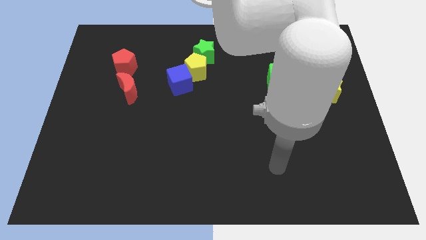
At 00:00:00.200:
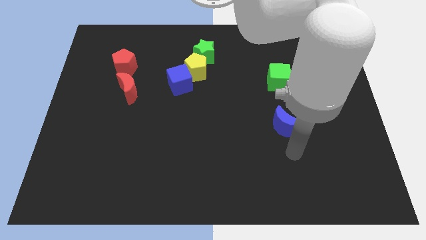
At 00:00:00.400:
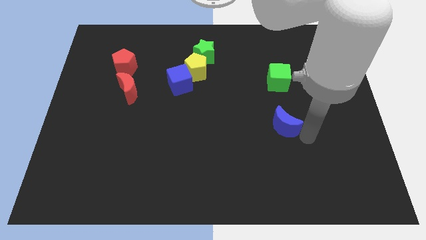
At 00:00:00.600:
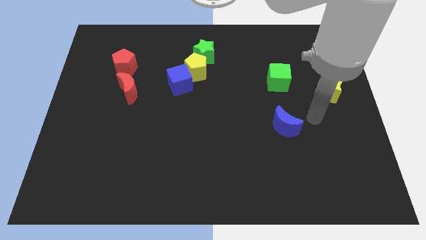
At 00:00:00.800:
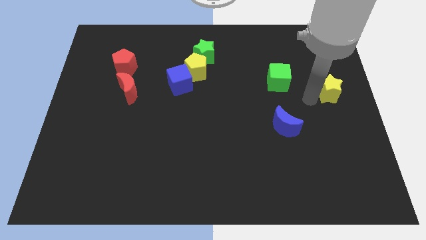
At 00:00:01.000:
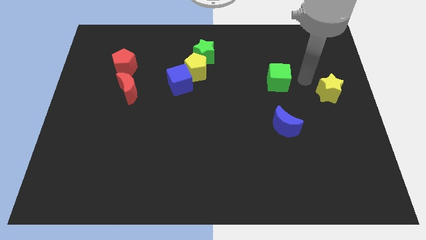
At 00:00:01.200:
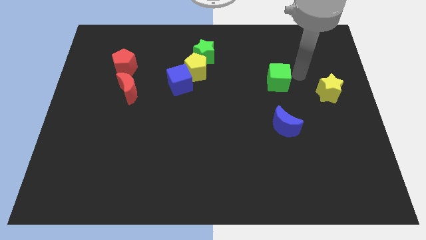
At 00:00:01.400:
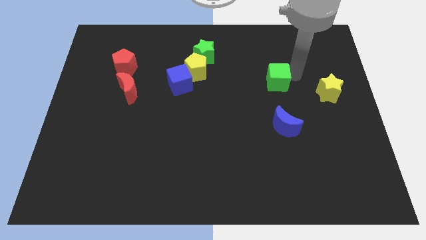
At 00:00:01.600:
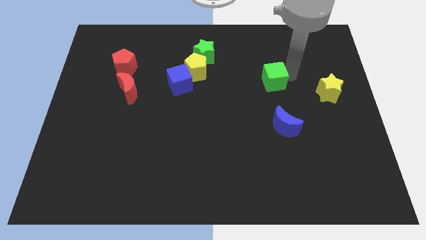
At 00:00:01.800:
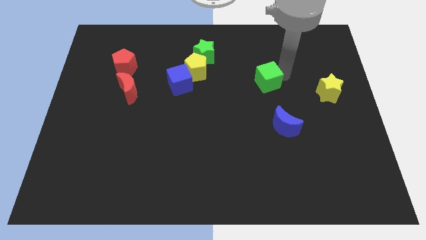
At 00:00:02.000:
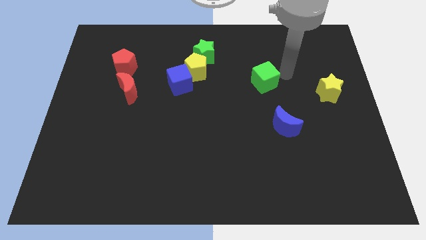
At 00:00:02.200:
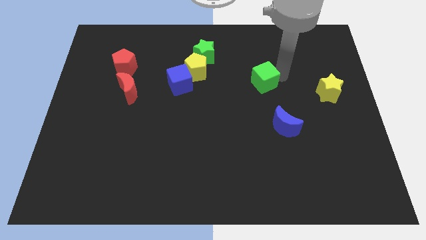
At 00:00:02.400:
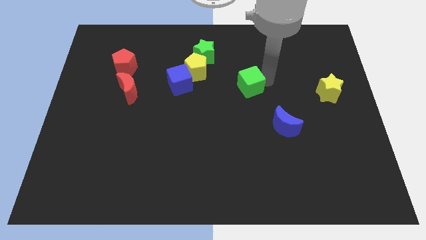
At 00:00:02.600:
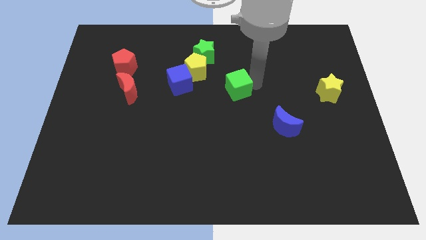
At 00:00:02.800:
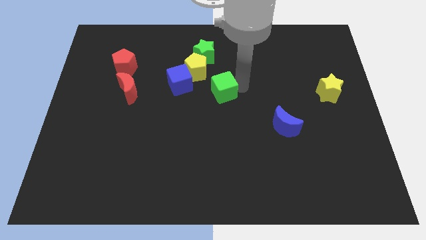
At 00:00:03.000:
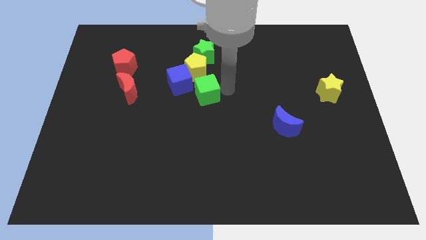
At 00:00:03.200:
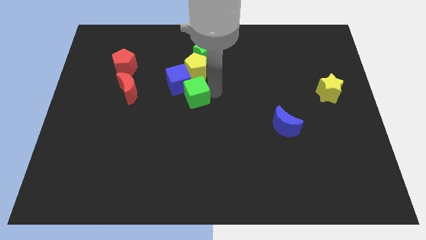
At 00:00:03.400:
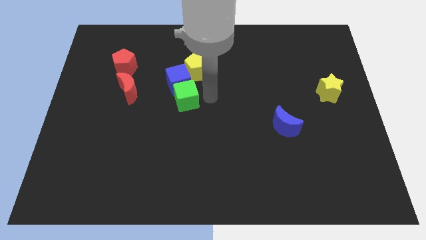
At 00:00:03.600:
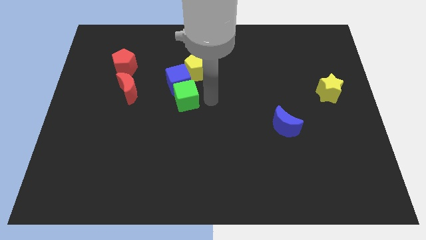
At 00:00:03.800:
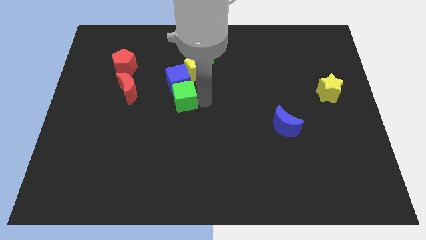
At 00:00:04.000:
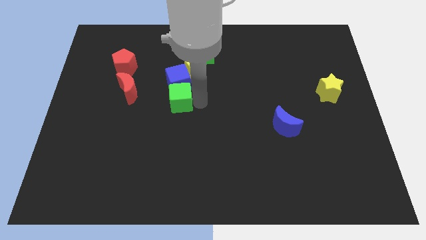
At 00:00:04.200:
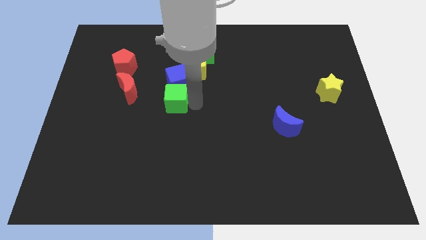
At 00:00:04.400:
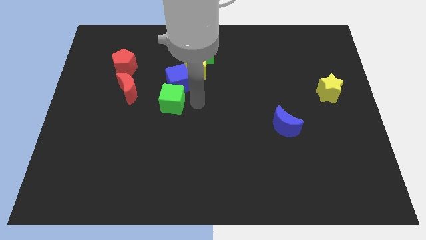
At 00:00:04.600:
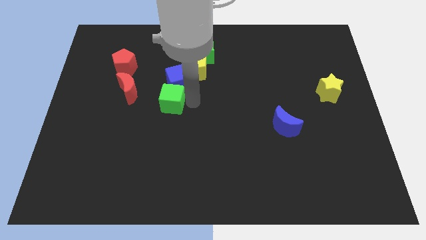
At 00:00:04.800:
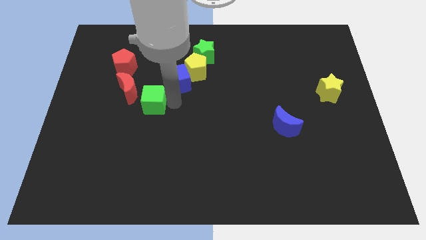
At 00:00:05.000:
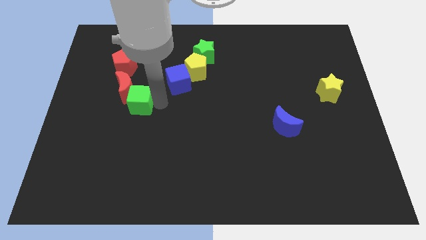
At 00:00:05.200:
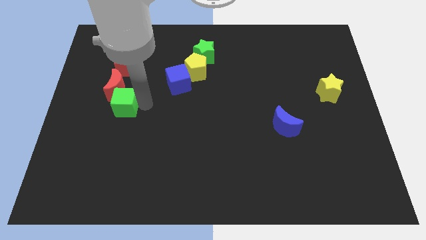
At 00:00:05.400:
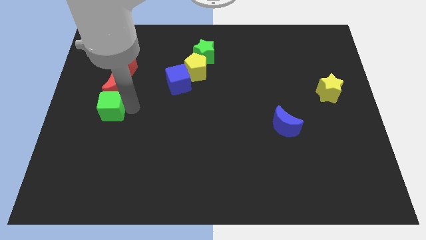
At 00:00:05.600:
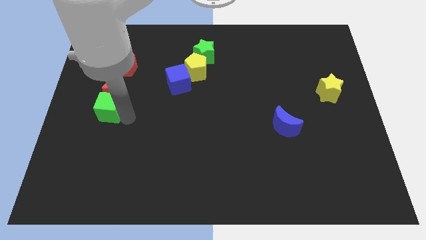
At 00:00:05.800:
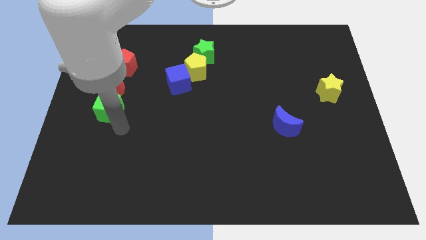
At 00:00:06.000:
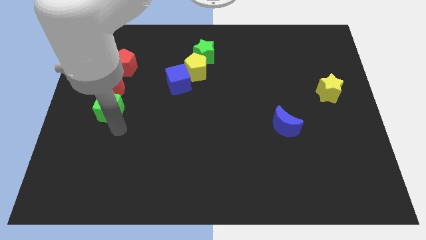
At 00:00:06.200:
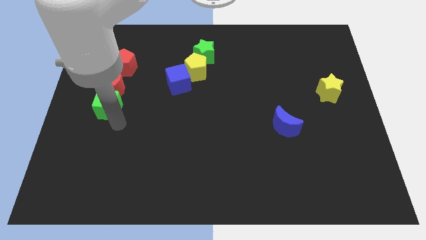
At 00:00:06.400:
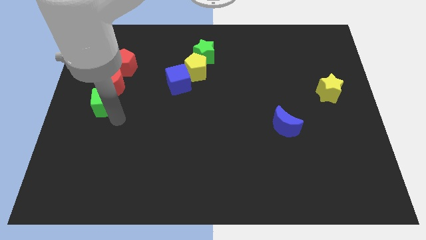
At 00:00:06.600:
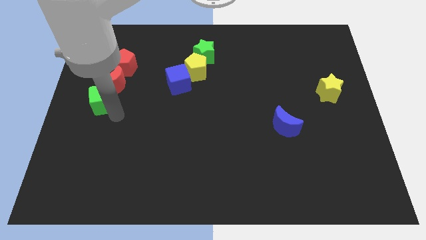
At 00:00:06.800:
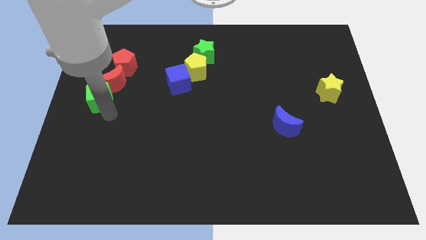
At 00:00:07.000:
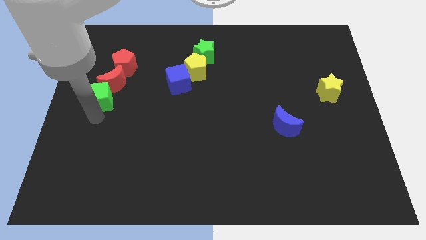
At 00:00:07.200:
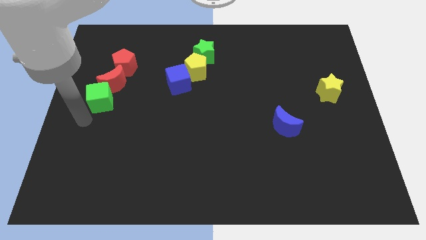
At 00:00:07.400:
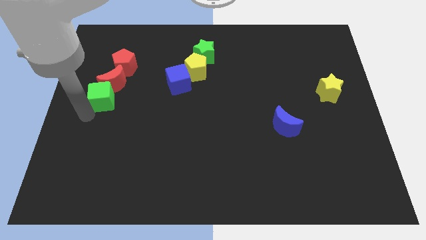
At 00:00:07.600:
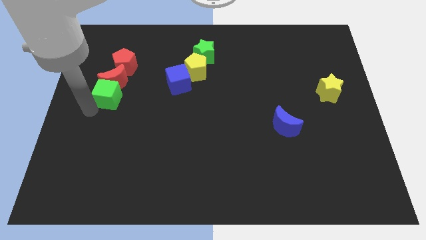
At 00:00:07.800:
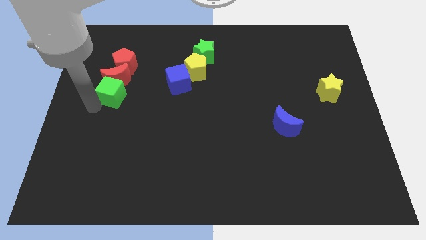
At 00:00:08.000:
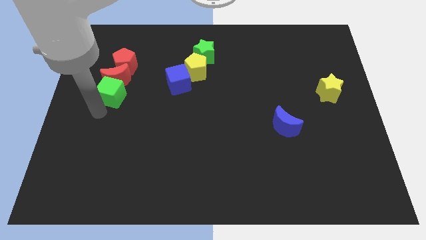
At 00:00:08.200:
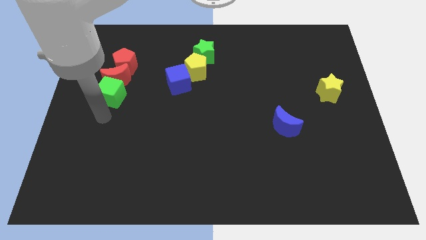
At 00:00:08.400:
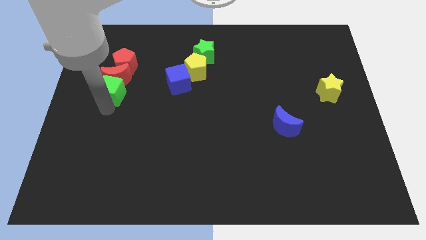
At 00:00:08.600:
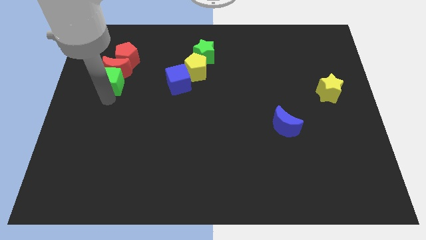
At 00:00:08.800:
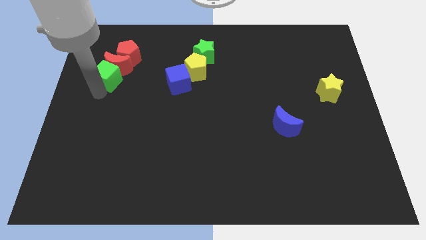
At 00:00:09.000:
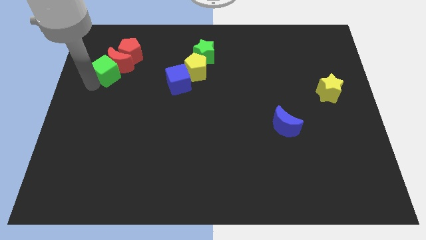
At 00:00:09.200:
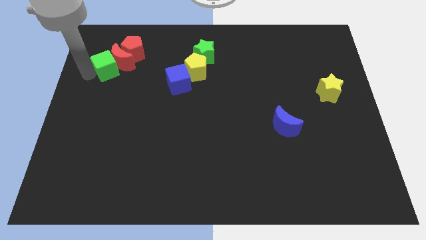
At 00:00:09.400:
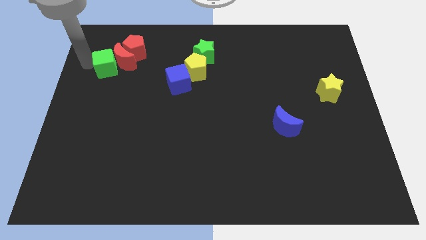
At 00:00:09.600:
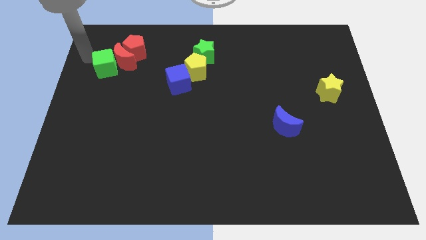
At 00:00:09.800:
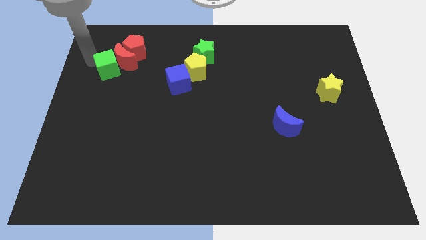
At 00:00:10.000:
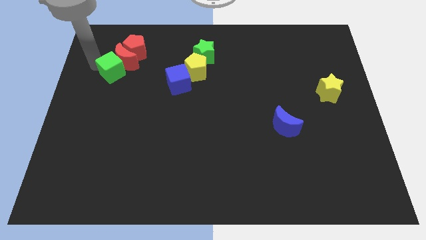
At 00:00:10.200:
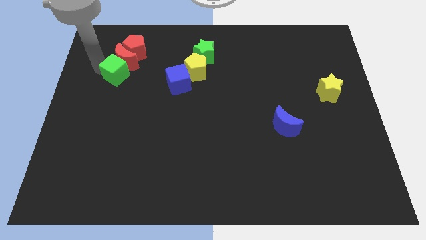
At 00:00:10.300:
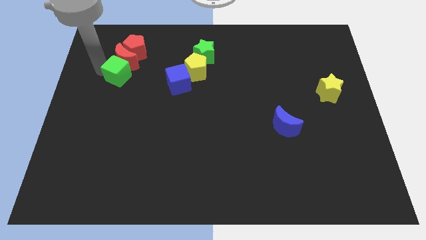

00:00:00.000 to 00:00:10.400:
move the green cube to the left side of the blue cube

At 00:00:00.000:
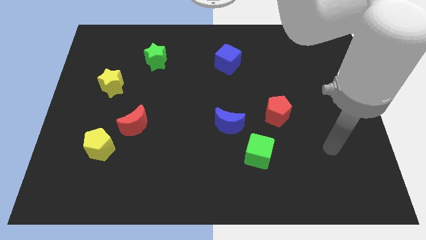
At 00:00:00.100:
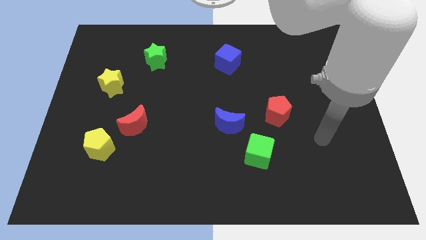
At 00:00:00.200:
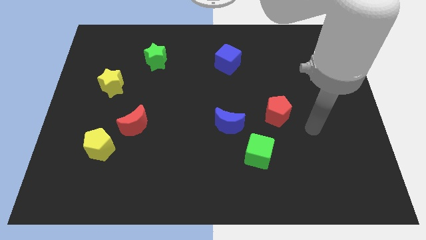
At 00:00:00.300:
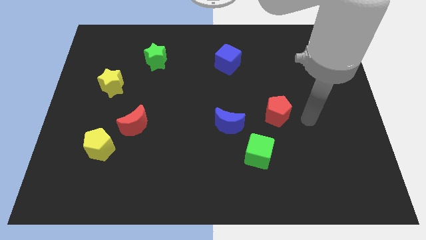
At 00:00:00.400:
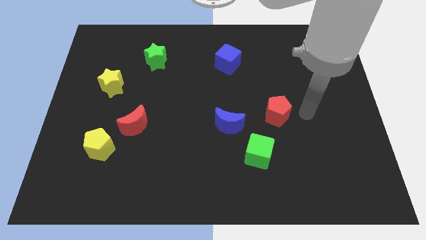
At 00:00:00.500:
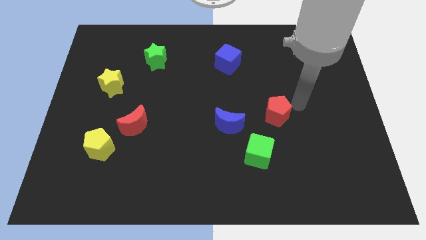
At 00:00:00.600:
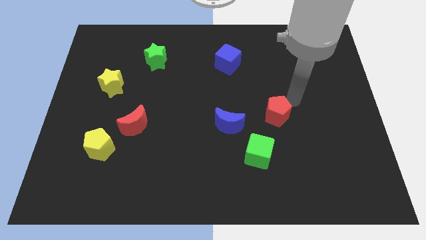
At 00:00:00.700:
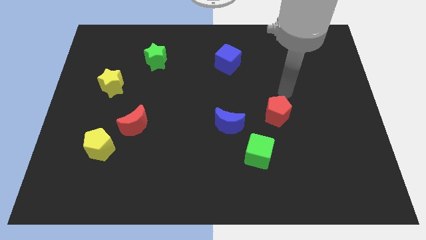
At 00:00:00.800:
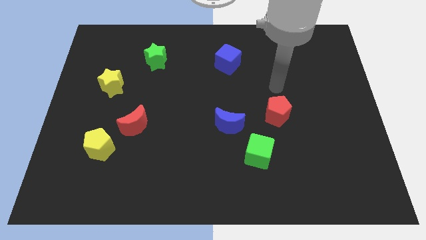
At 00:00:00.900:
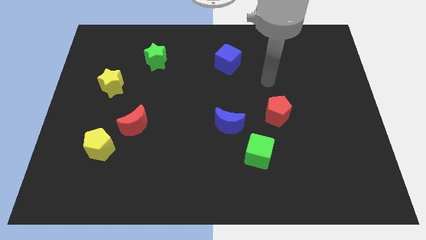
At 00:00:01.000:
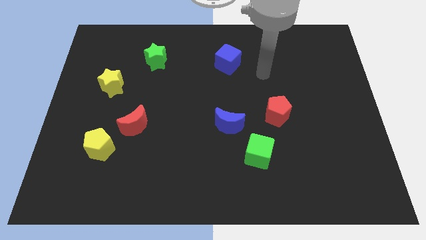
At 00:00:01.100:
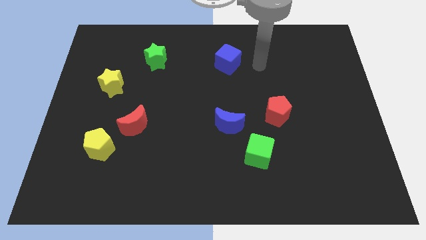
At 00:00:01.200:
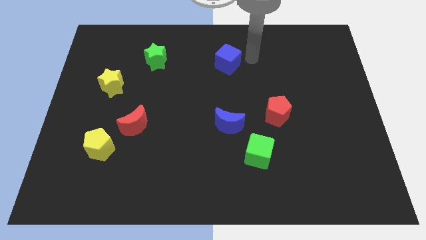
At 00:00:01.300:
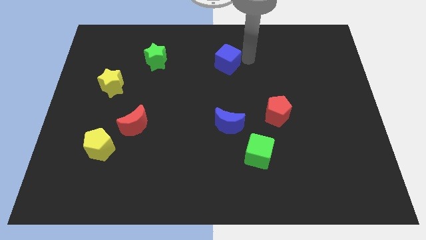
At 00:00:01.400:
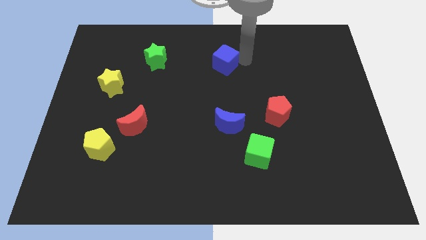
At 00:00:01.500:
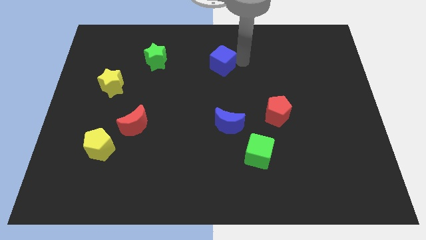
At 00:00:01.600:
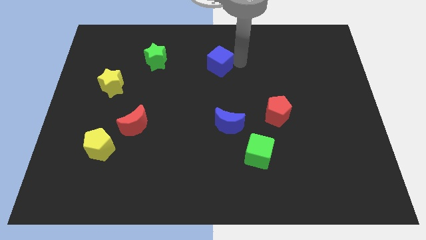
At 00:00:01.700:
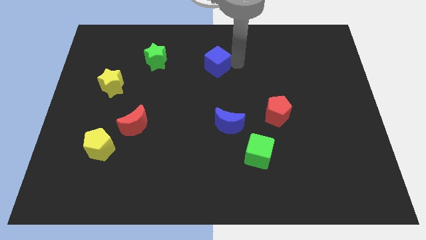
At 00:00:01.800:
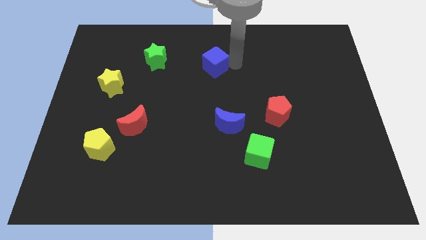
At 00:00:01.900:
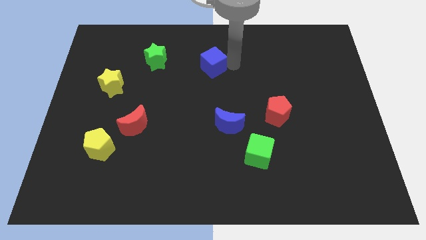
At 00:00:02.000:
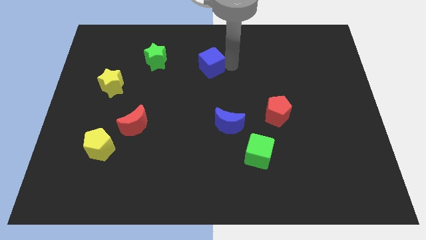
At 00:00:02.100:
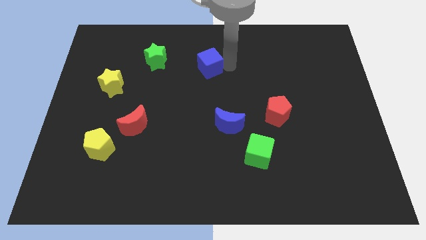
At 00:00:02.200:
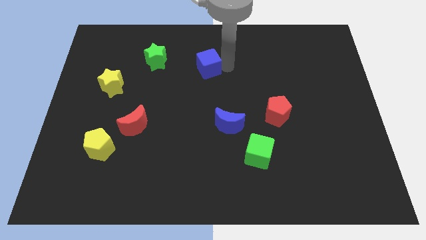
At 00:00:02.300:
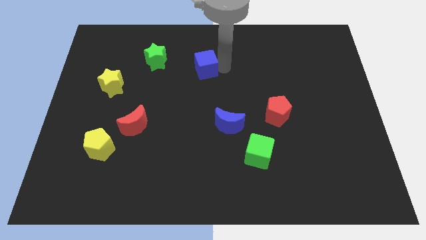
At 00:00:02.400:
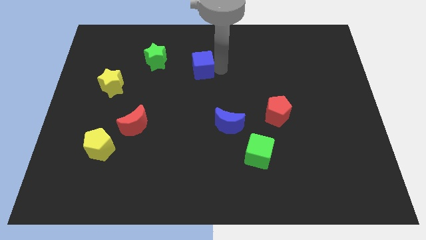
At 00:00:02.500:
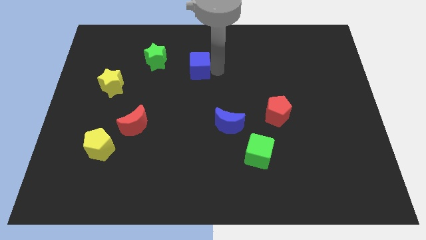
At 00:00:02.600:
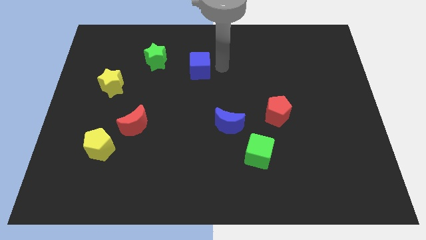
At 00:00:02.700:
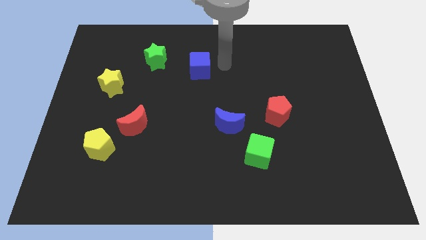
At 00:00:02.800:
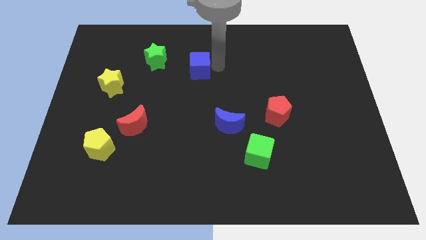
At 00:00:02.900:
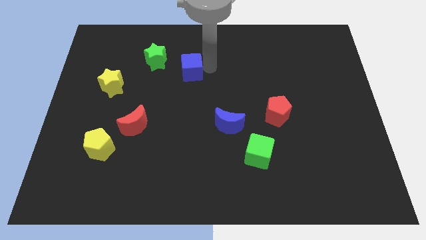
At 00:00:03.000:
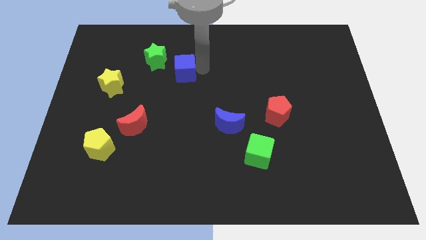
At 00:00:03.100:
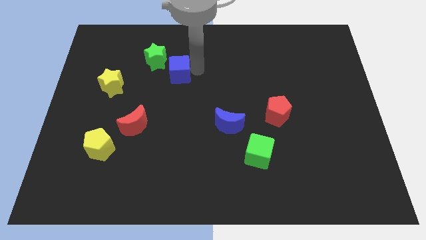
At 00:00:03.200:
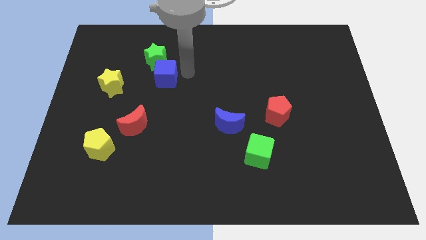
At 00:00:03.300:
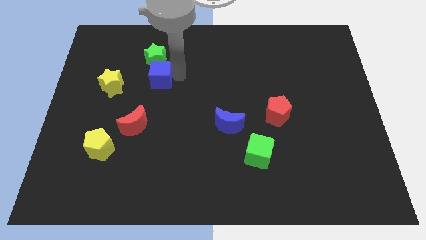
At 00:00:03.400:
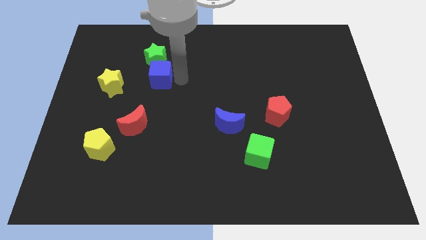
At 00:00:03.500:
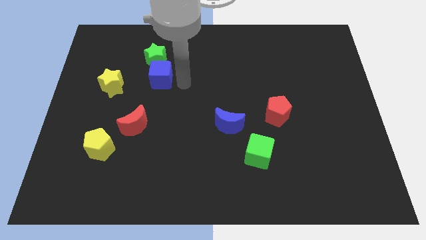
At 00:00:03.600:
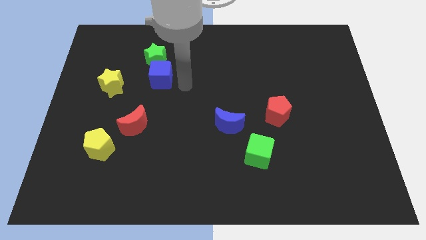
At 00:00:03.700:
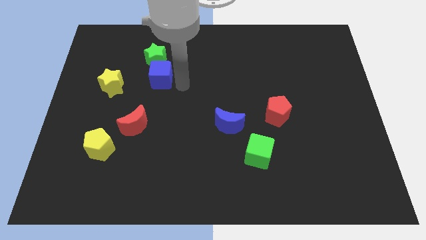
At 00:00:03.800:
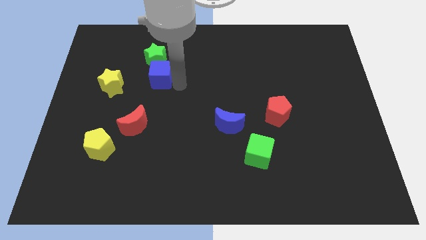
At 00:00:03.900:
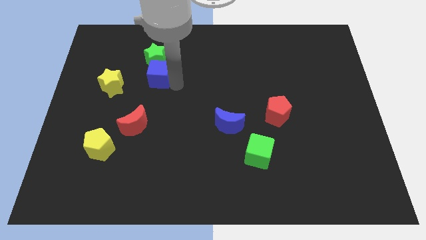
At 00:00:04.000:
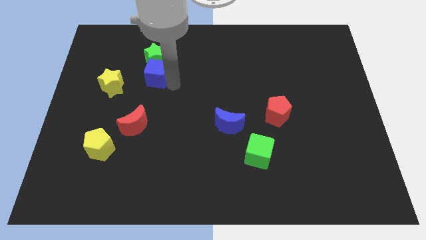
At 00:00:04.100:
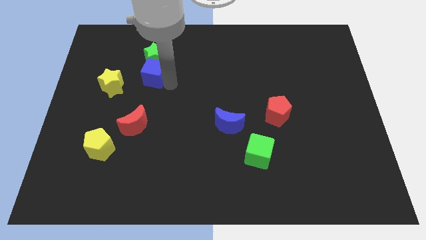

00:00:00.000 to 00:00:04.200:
push the blue cube to the top right side of the yellow star
